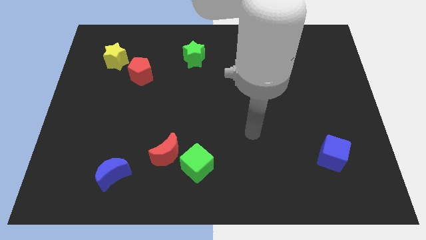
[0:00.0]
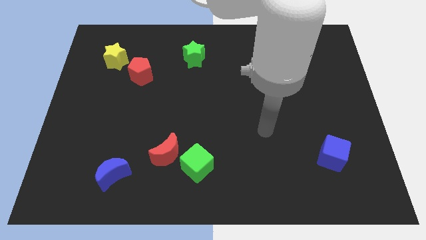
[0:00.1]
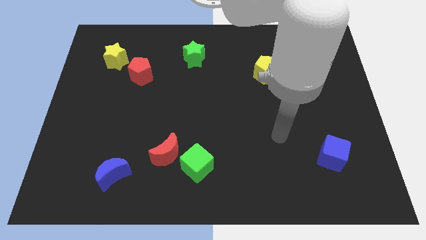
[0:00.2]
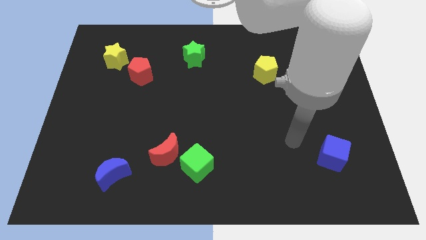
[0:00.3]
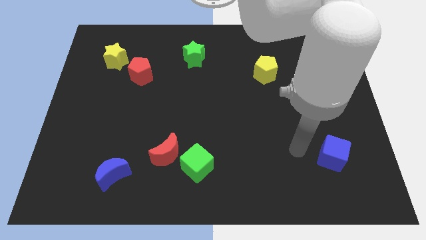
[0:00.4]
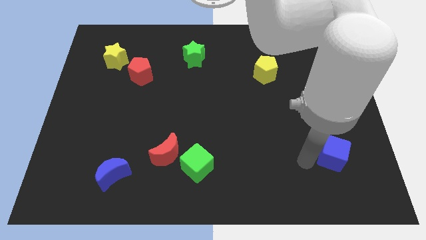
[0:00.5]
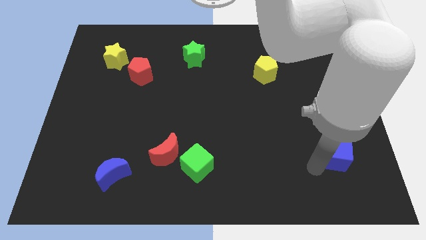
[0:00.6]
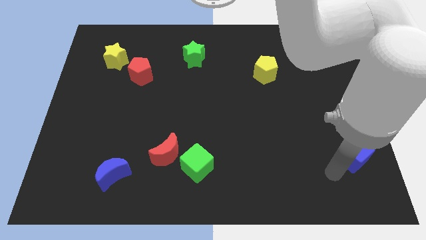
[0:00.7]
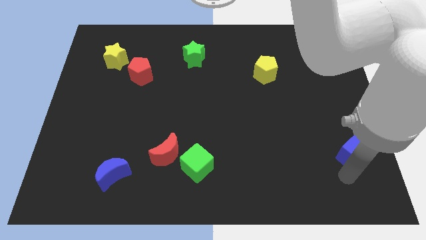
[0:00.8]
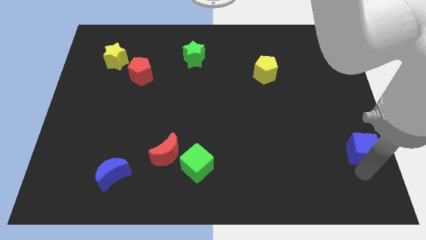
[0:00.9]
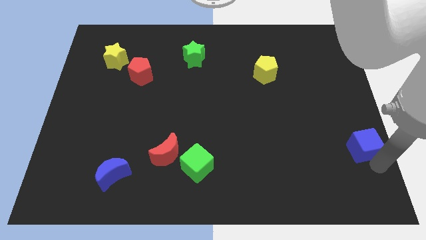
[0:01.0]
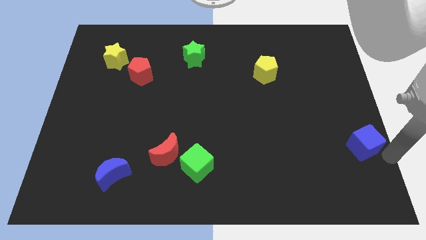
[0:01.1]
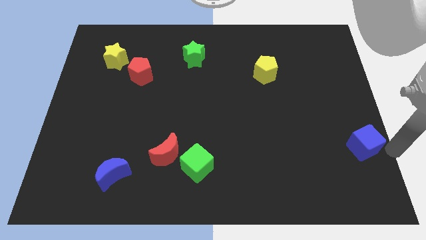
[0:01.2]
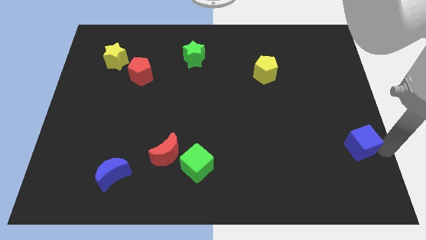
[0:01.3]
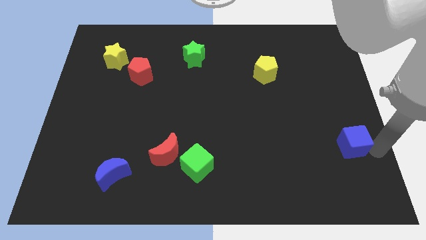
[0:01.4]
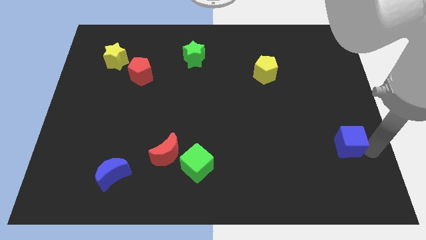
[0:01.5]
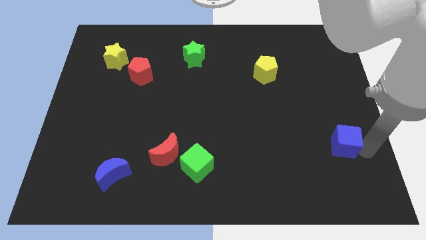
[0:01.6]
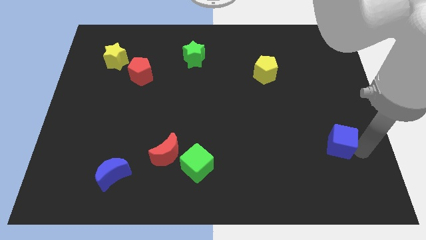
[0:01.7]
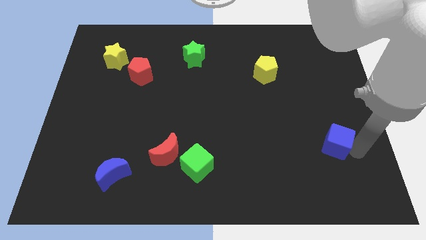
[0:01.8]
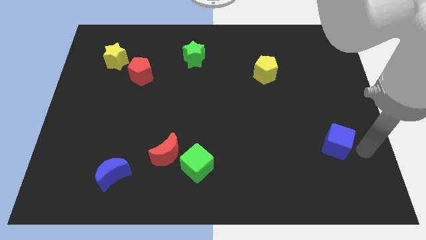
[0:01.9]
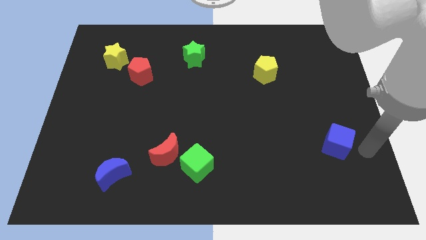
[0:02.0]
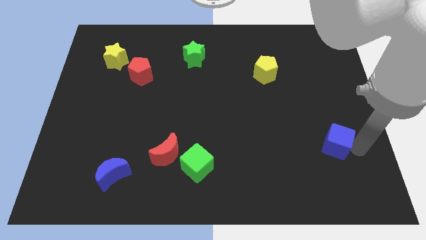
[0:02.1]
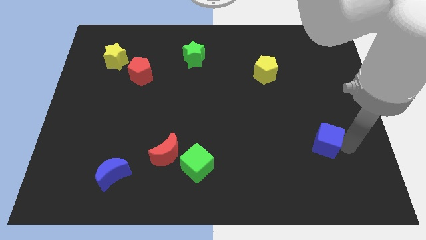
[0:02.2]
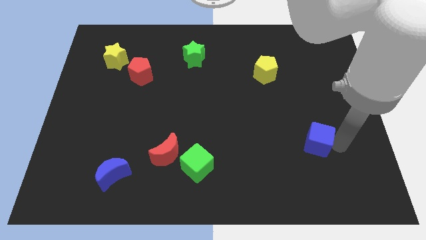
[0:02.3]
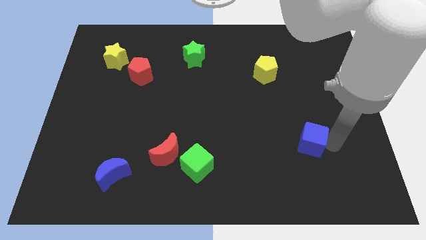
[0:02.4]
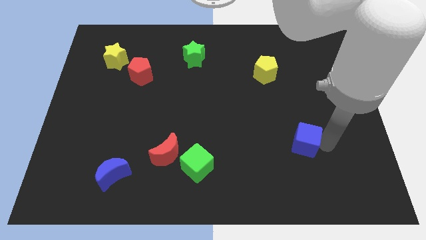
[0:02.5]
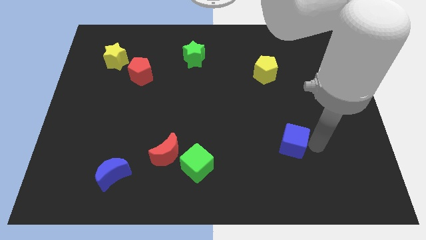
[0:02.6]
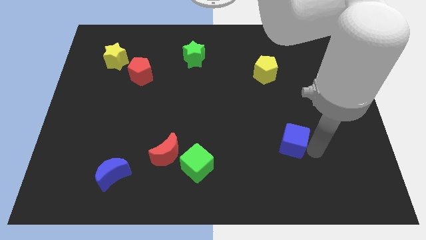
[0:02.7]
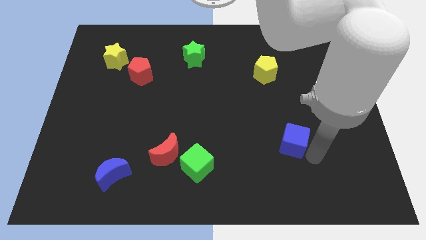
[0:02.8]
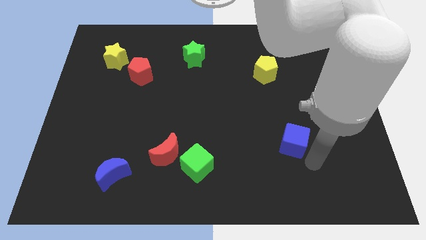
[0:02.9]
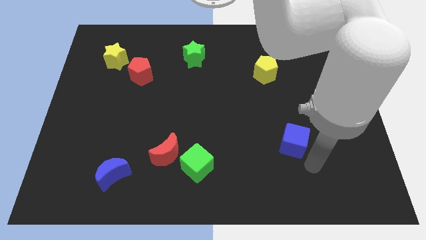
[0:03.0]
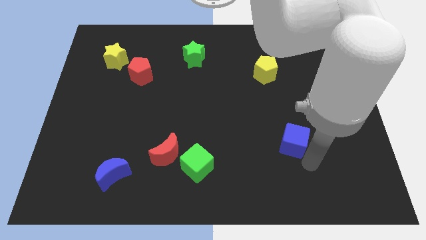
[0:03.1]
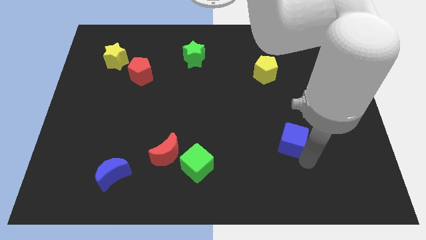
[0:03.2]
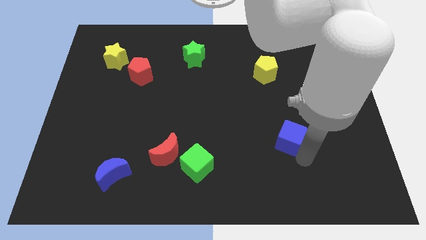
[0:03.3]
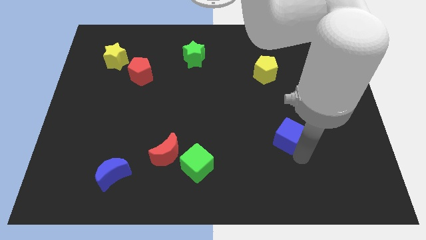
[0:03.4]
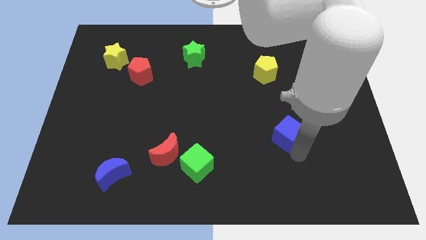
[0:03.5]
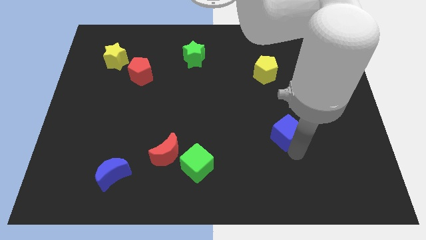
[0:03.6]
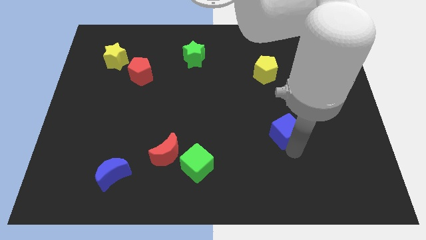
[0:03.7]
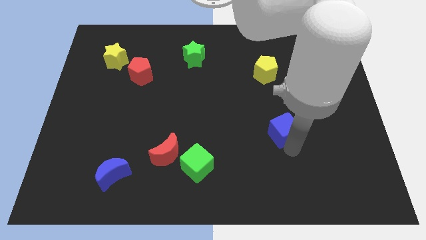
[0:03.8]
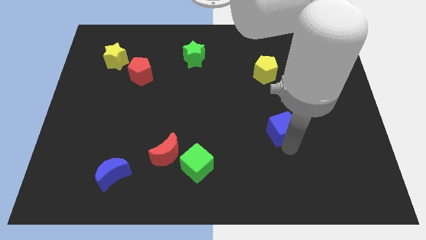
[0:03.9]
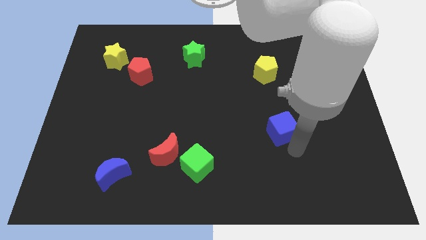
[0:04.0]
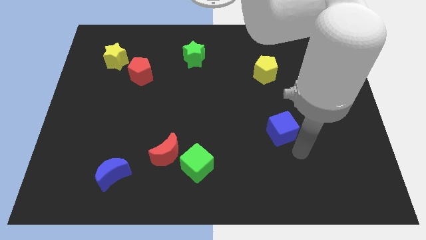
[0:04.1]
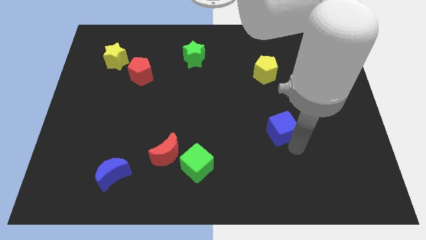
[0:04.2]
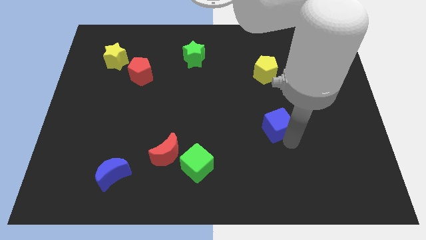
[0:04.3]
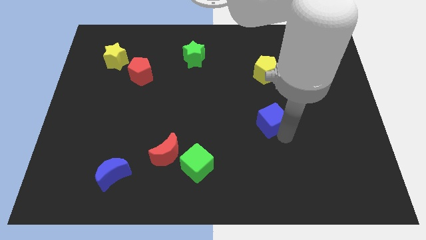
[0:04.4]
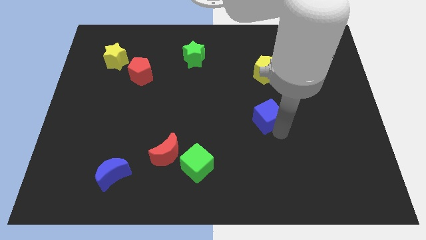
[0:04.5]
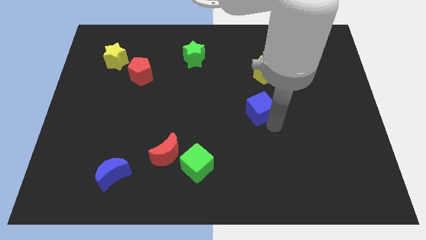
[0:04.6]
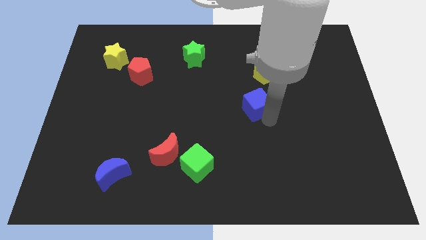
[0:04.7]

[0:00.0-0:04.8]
move the blue cube up and to the left diagonally

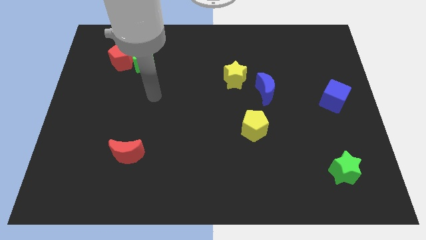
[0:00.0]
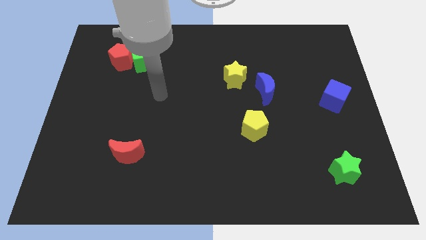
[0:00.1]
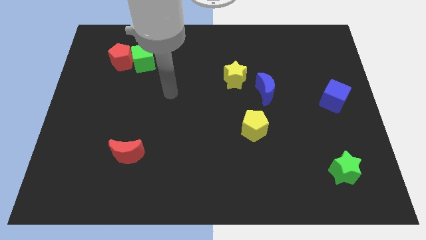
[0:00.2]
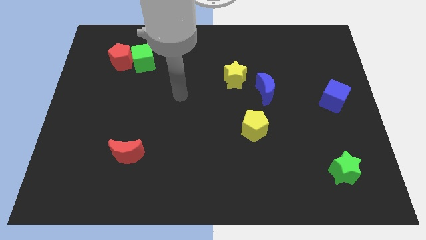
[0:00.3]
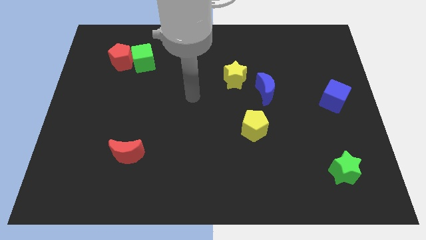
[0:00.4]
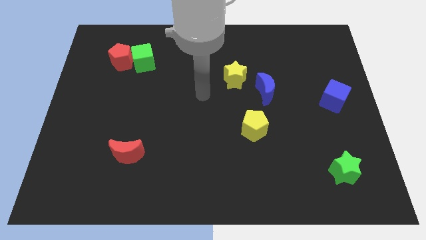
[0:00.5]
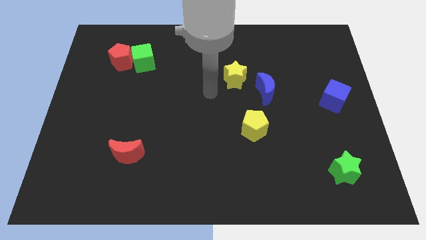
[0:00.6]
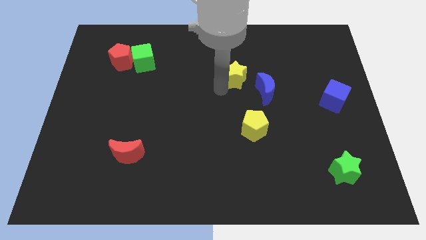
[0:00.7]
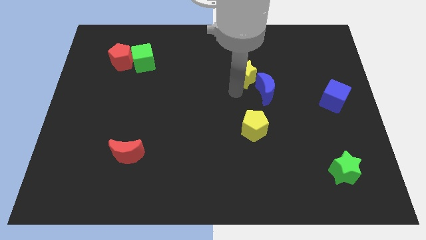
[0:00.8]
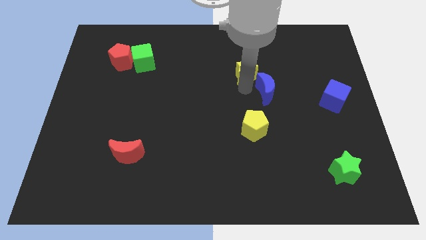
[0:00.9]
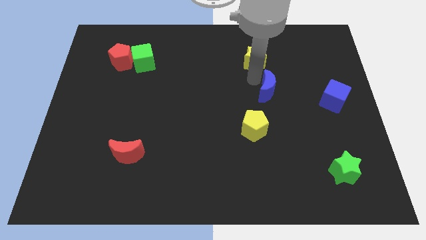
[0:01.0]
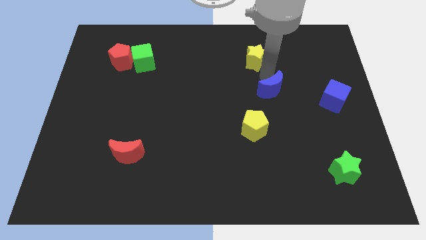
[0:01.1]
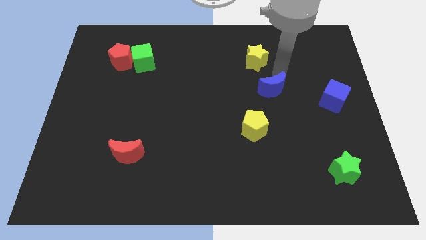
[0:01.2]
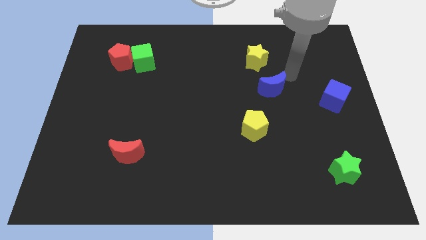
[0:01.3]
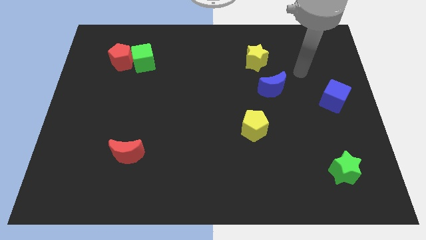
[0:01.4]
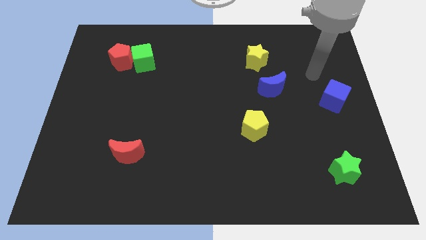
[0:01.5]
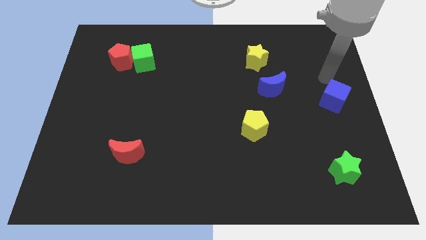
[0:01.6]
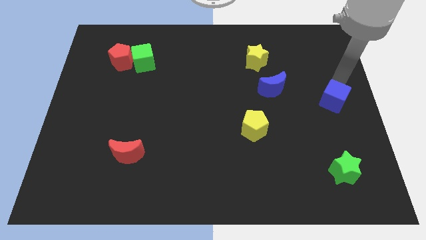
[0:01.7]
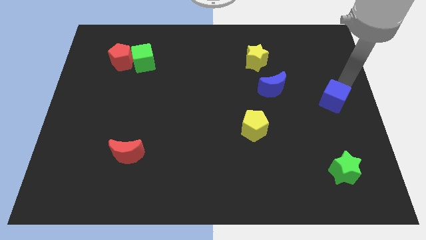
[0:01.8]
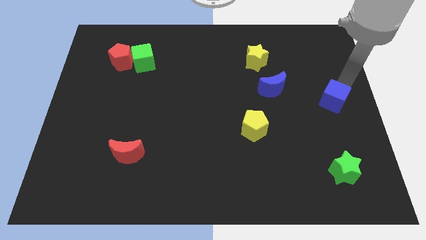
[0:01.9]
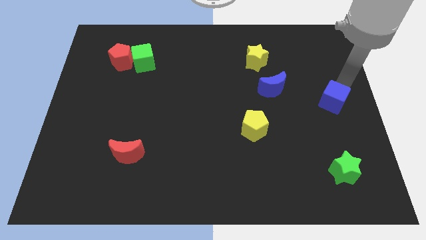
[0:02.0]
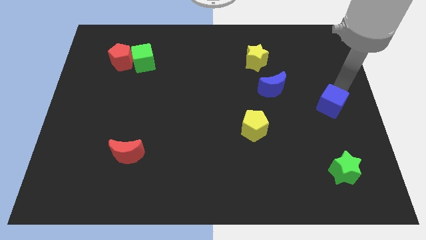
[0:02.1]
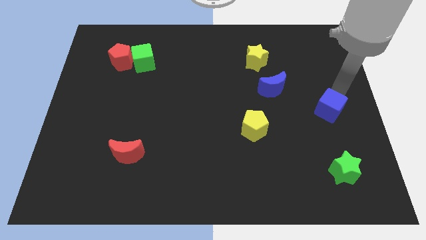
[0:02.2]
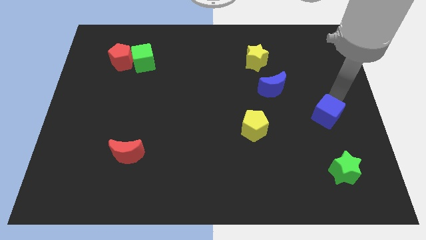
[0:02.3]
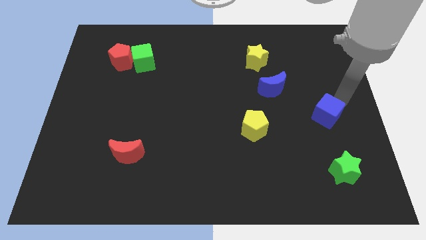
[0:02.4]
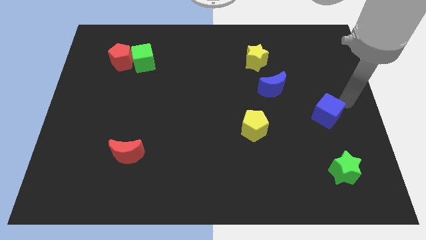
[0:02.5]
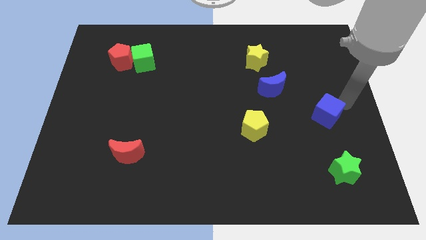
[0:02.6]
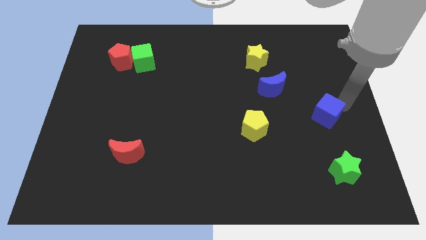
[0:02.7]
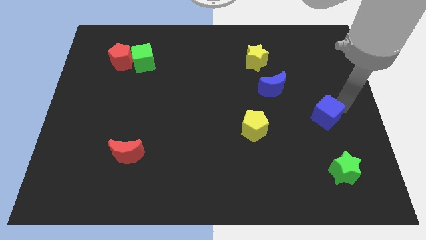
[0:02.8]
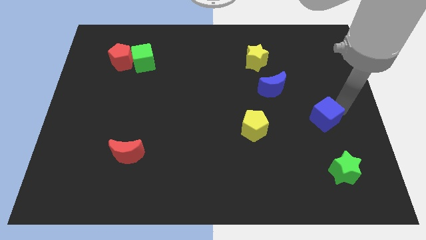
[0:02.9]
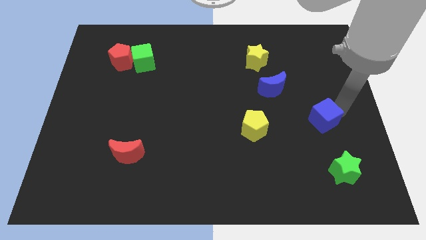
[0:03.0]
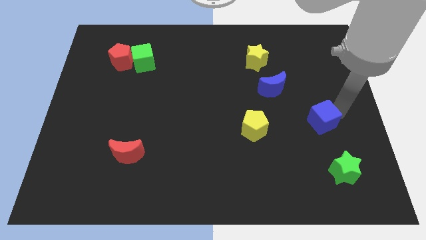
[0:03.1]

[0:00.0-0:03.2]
slide the blue cube slightly diagonally down and left

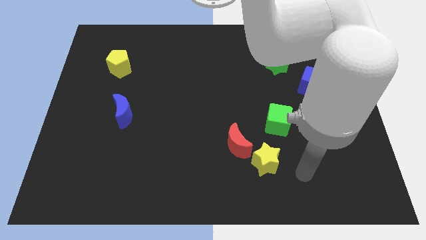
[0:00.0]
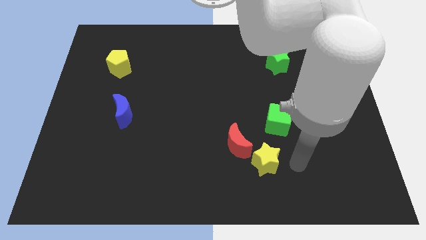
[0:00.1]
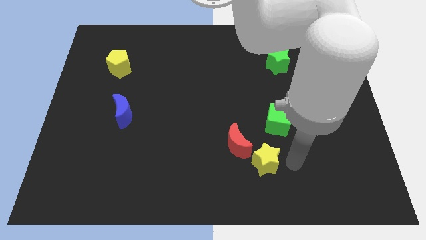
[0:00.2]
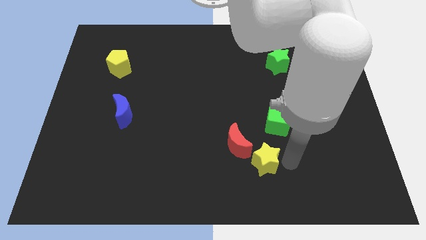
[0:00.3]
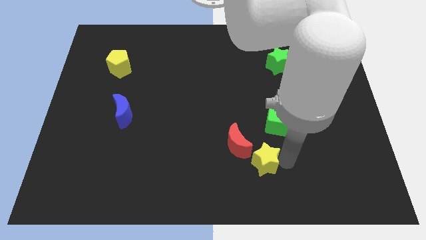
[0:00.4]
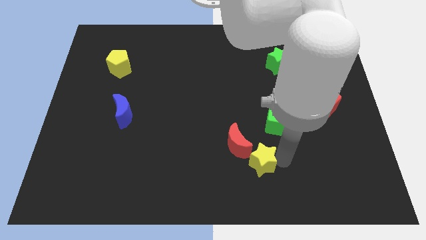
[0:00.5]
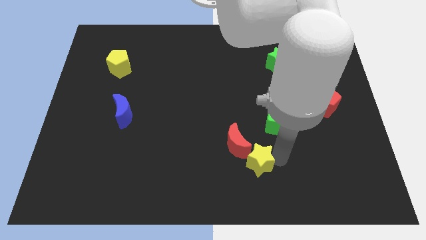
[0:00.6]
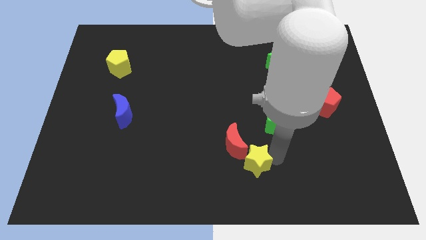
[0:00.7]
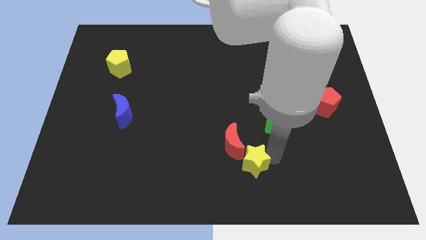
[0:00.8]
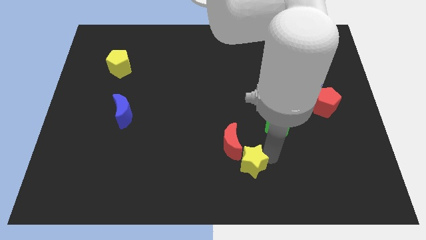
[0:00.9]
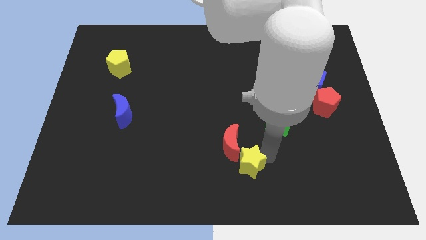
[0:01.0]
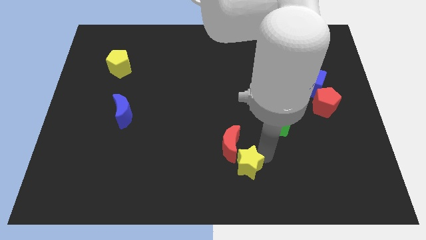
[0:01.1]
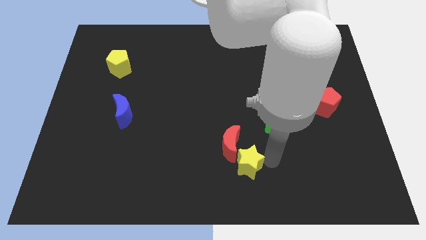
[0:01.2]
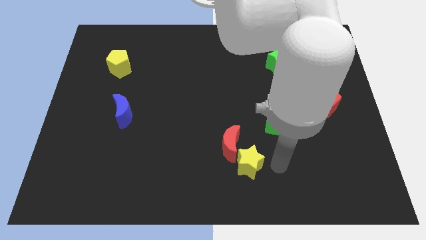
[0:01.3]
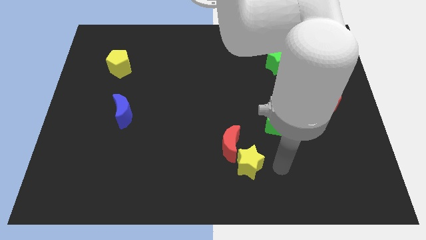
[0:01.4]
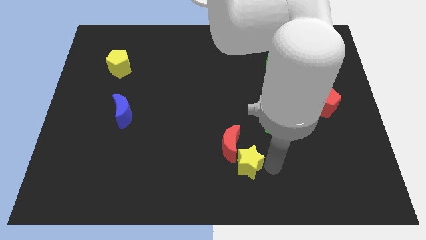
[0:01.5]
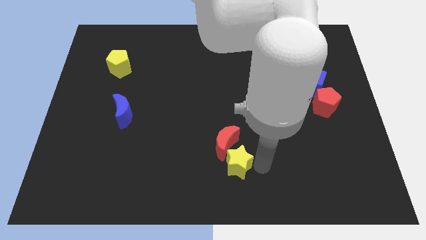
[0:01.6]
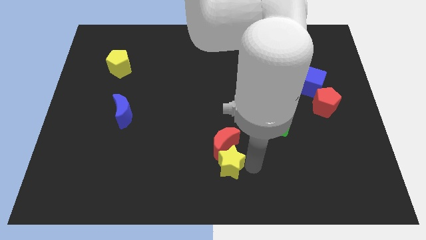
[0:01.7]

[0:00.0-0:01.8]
move the yellow star left slightly
